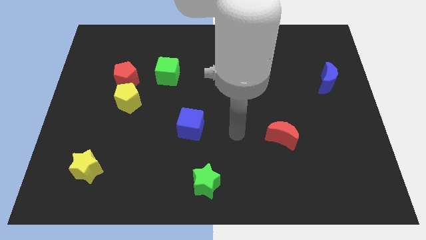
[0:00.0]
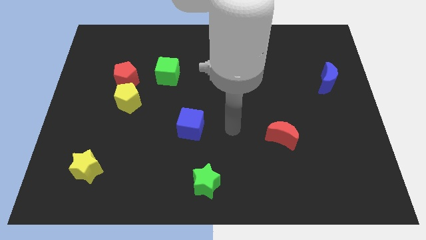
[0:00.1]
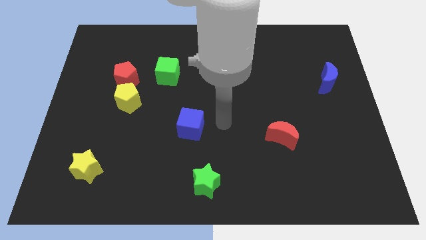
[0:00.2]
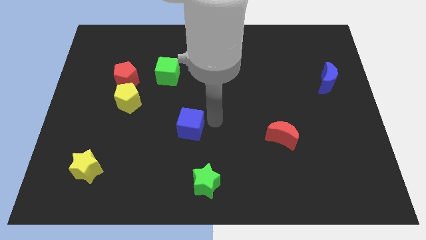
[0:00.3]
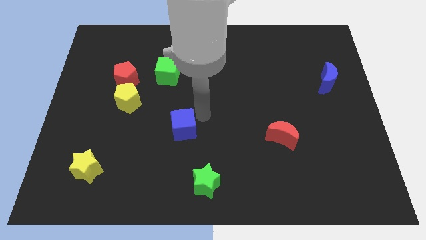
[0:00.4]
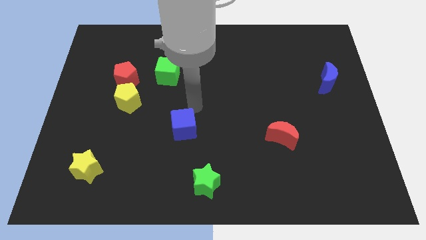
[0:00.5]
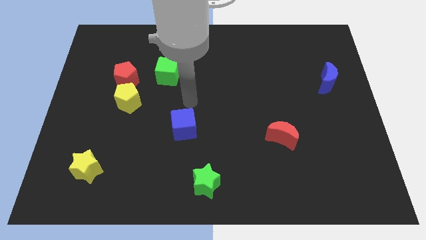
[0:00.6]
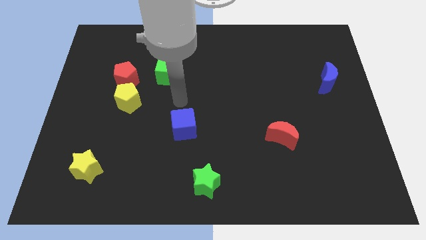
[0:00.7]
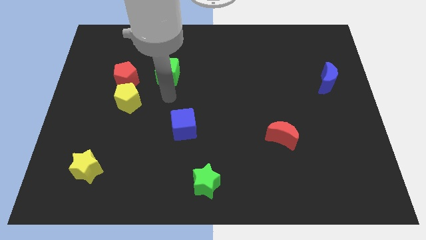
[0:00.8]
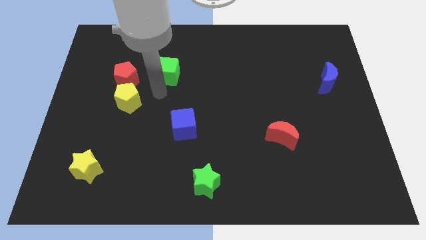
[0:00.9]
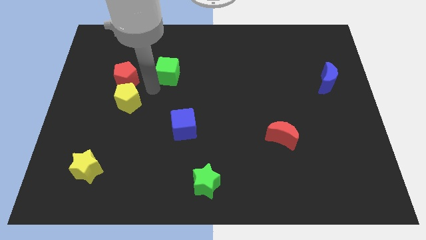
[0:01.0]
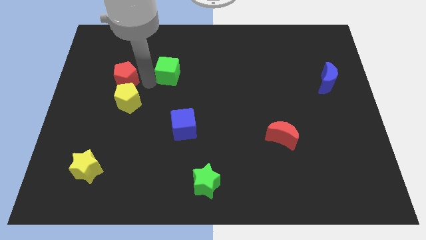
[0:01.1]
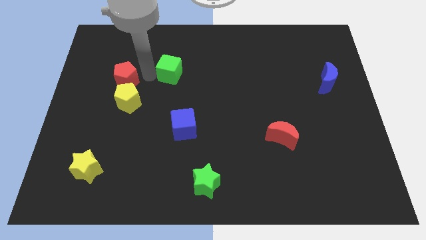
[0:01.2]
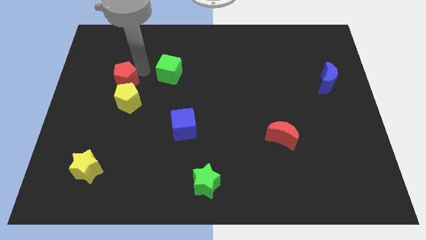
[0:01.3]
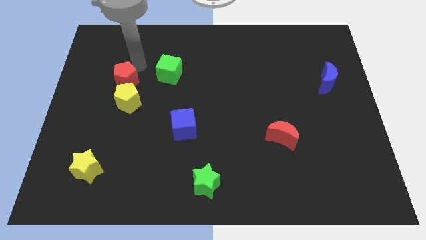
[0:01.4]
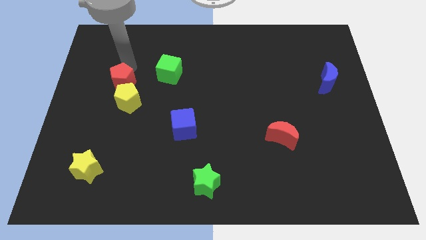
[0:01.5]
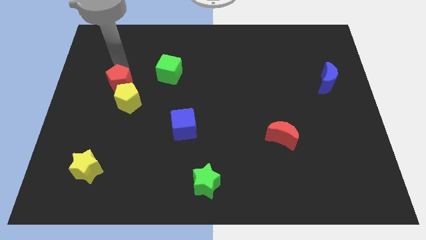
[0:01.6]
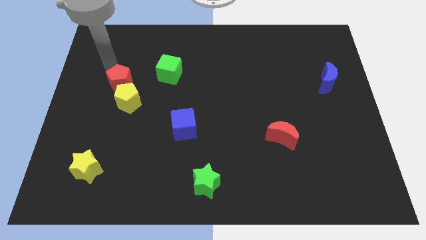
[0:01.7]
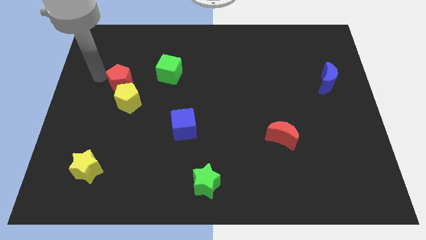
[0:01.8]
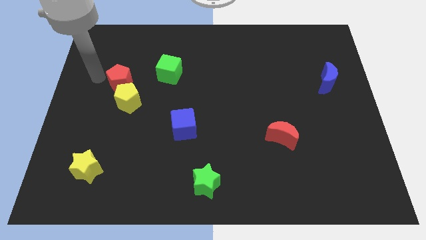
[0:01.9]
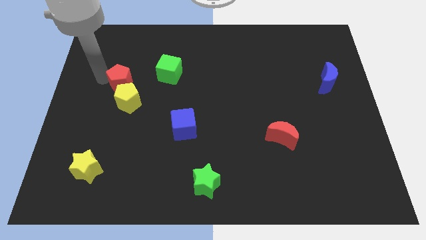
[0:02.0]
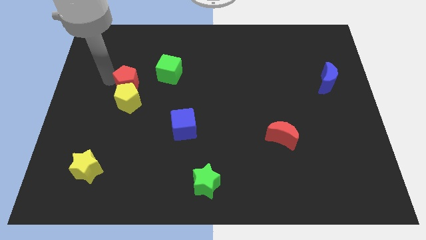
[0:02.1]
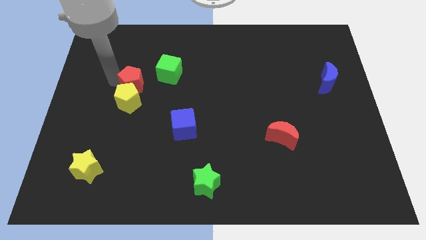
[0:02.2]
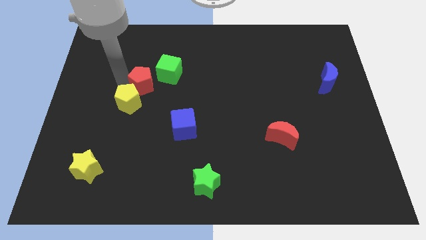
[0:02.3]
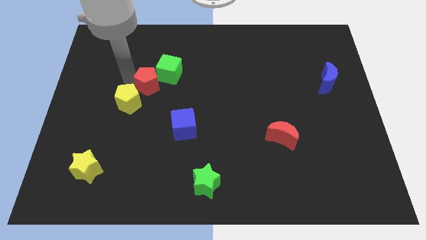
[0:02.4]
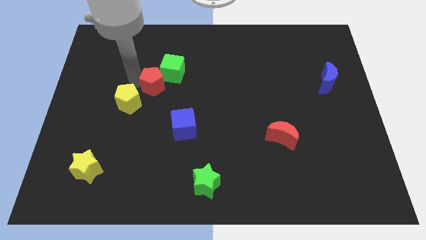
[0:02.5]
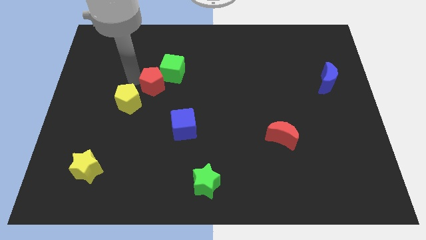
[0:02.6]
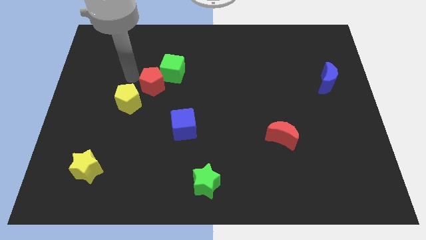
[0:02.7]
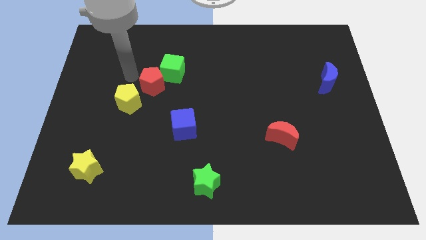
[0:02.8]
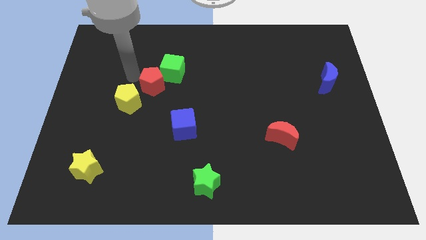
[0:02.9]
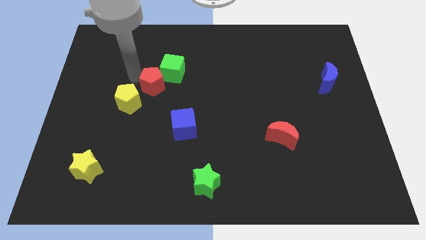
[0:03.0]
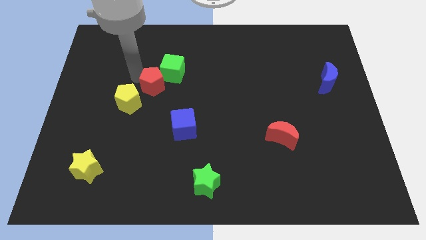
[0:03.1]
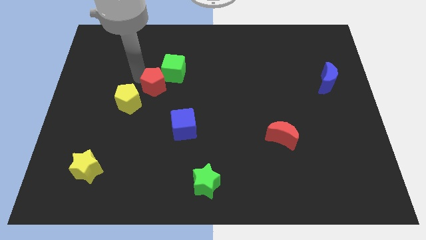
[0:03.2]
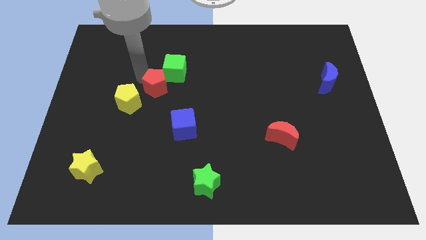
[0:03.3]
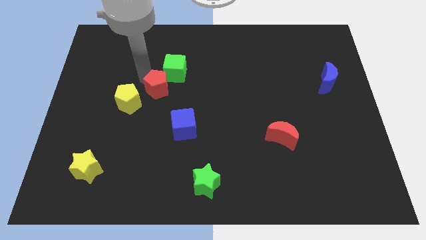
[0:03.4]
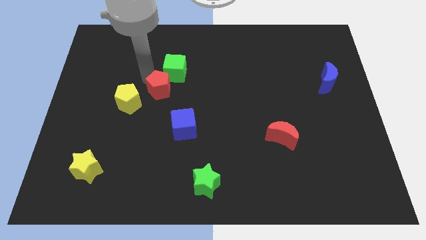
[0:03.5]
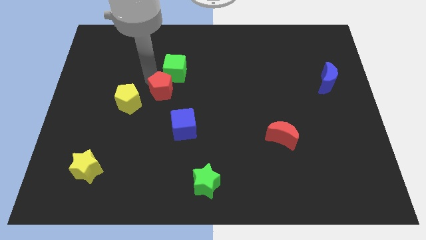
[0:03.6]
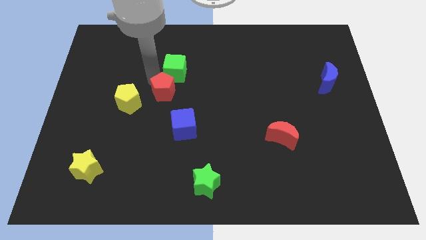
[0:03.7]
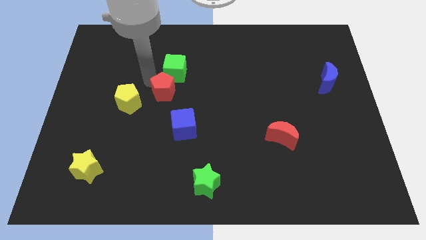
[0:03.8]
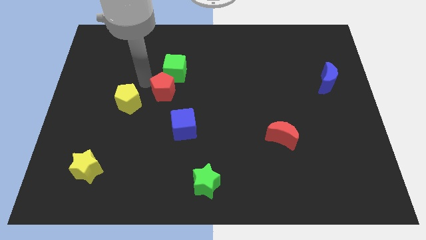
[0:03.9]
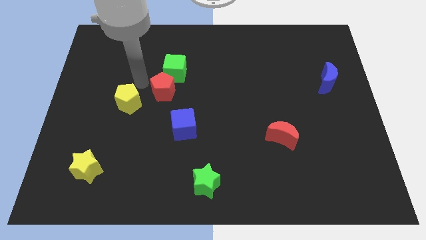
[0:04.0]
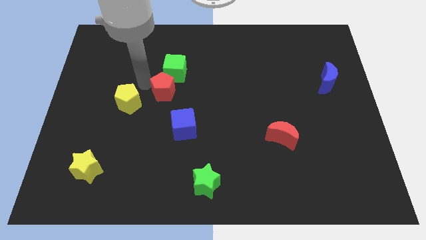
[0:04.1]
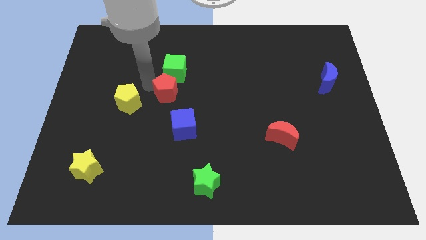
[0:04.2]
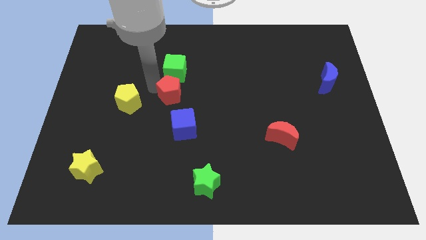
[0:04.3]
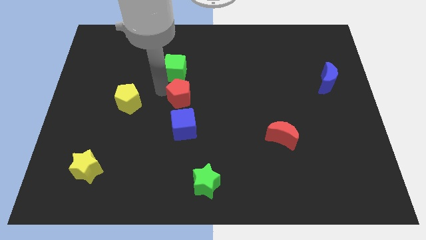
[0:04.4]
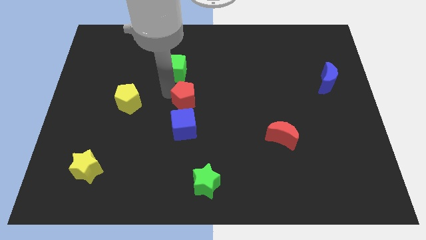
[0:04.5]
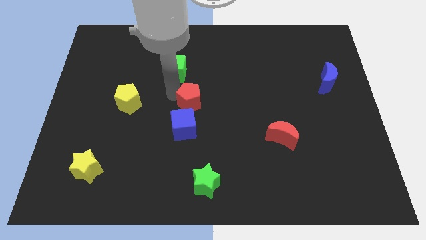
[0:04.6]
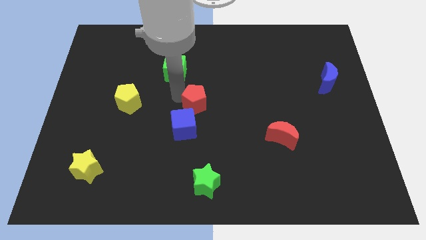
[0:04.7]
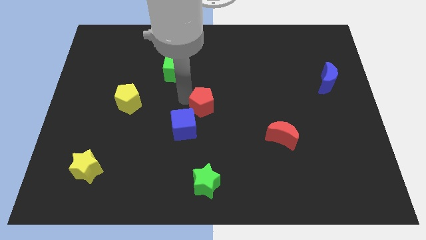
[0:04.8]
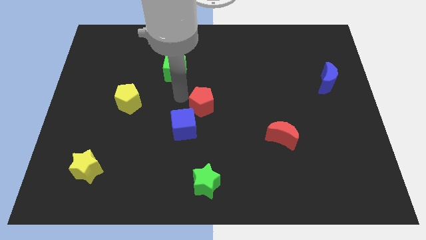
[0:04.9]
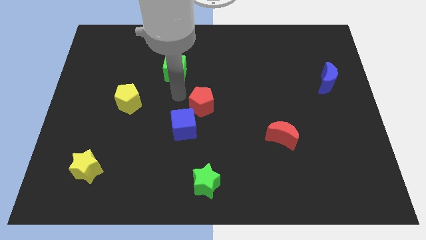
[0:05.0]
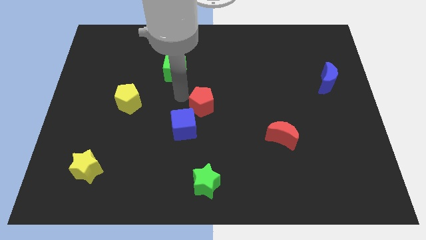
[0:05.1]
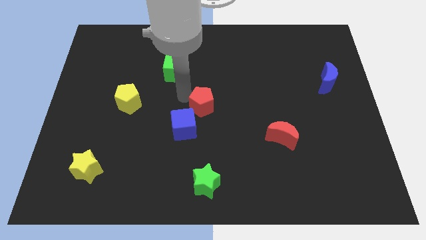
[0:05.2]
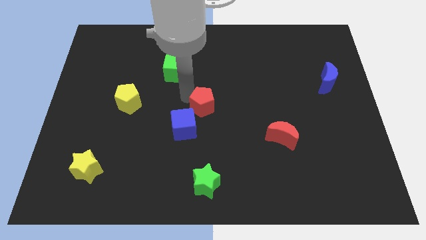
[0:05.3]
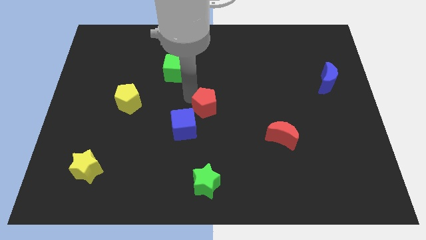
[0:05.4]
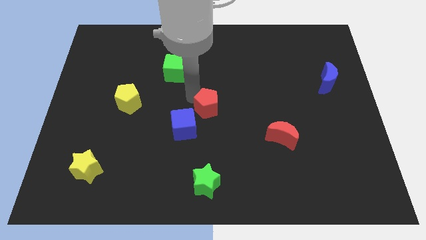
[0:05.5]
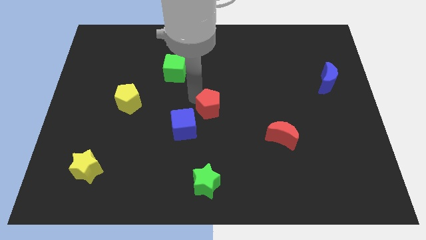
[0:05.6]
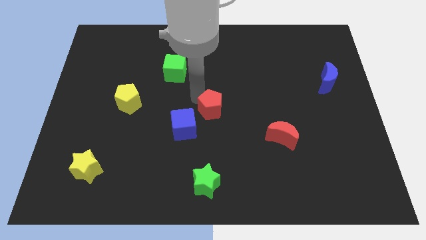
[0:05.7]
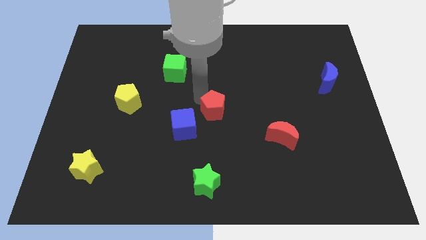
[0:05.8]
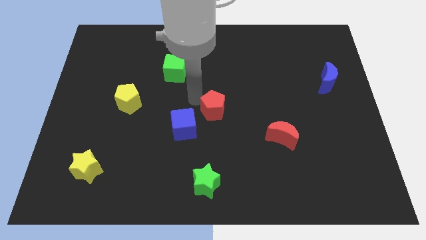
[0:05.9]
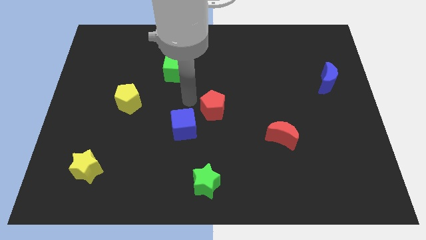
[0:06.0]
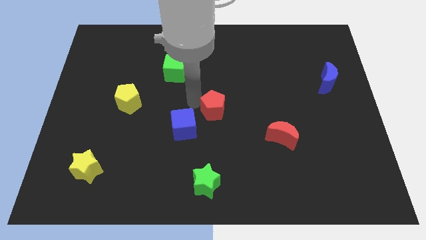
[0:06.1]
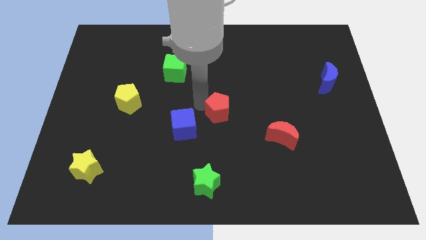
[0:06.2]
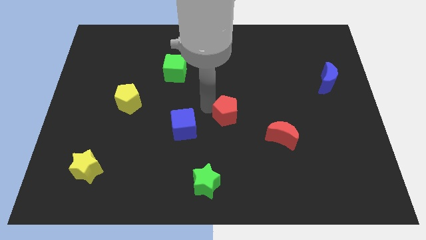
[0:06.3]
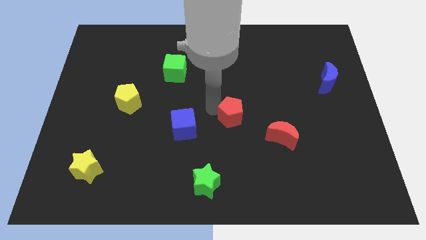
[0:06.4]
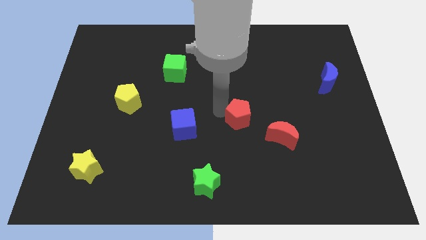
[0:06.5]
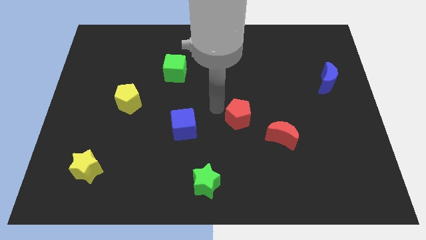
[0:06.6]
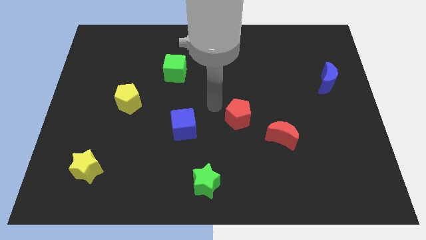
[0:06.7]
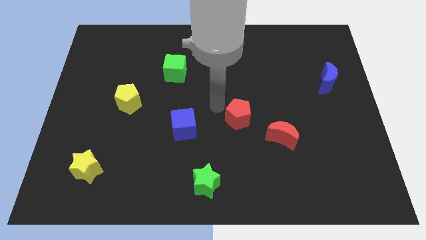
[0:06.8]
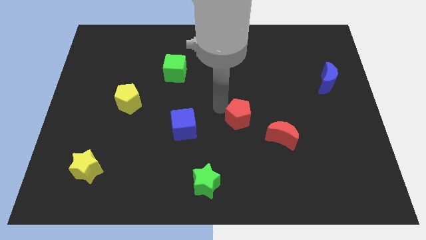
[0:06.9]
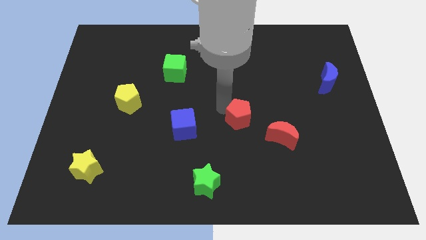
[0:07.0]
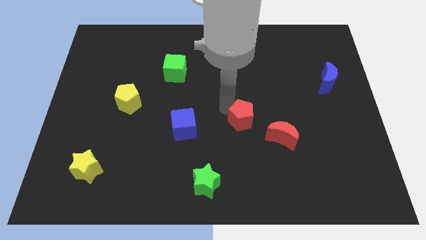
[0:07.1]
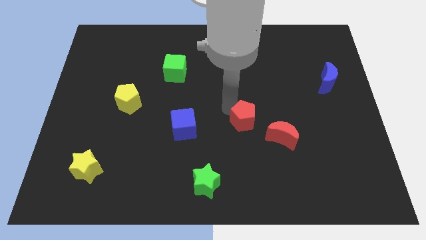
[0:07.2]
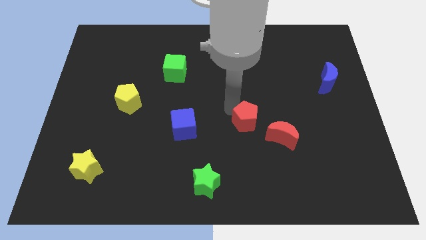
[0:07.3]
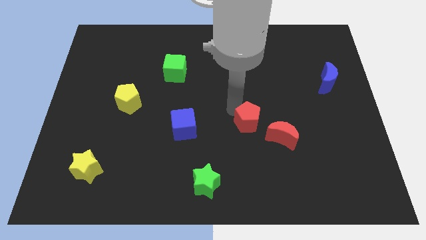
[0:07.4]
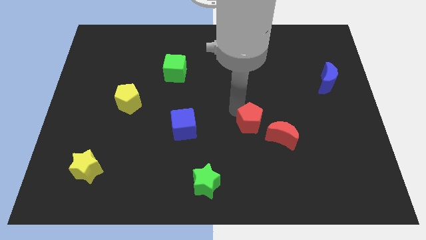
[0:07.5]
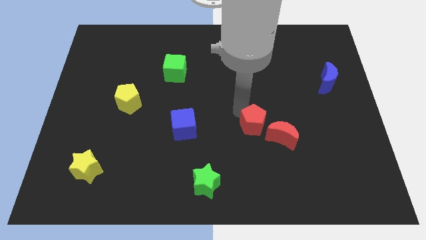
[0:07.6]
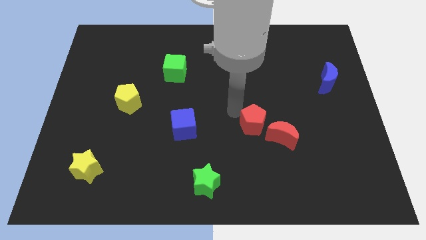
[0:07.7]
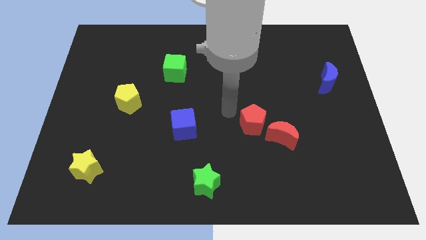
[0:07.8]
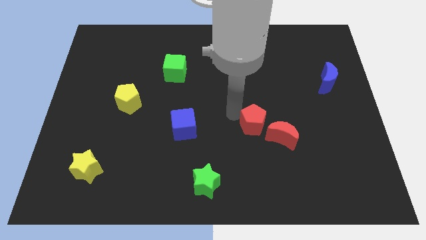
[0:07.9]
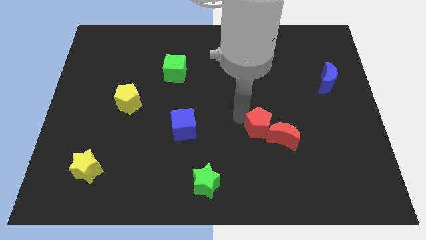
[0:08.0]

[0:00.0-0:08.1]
slide the red pentagon next to the red moon
